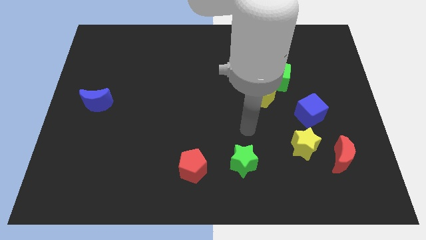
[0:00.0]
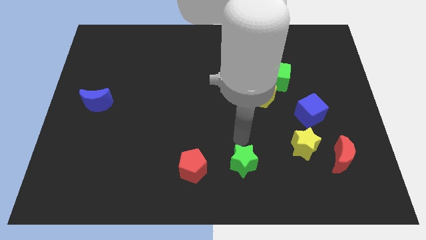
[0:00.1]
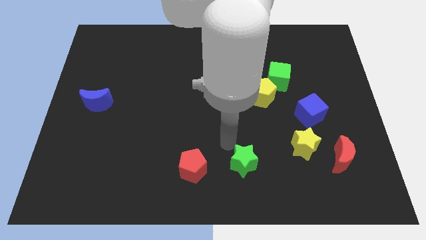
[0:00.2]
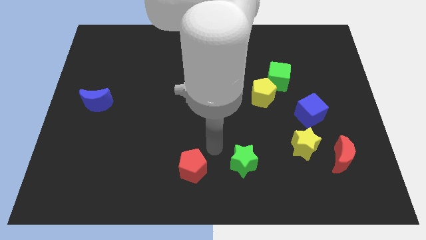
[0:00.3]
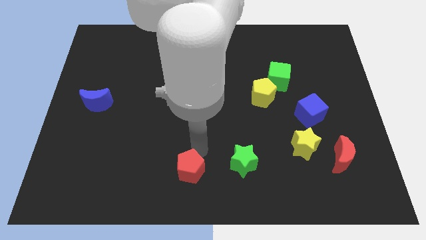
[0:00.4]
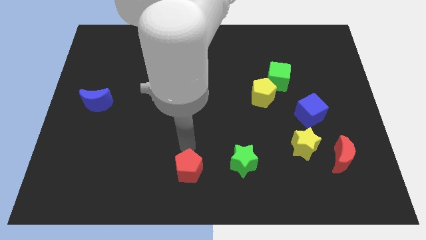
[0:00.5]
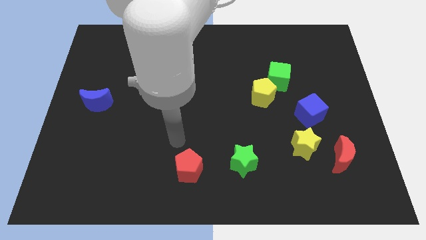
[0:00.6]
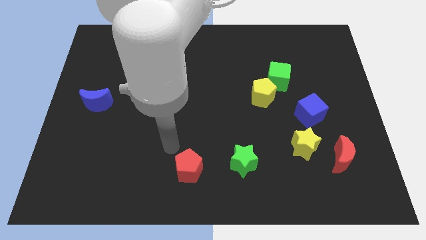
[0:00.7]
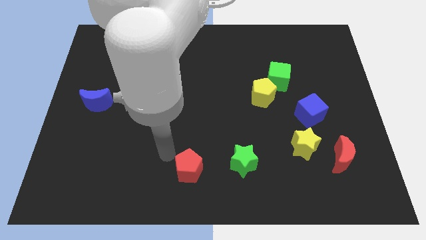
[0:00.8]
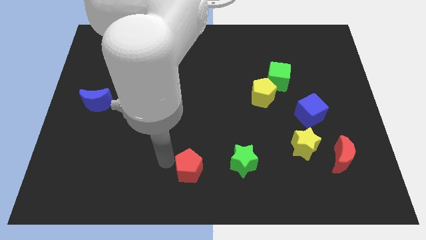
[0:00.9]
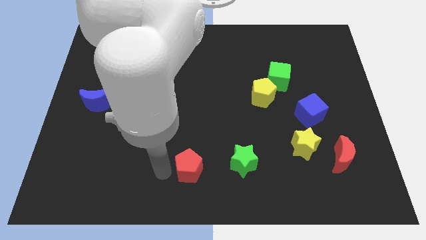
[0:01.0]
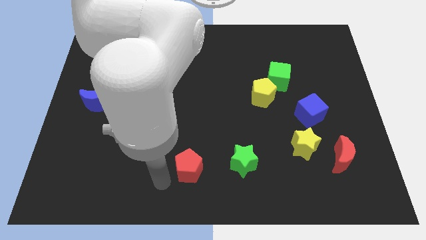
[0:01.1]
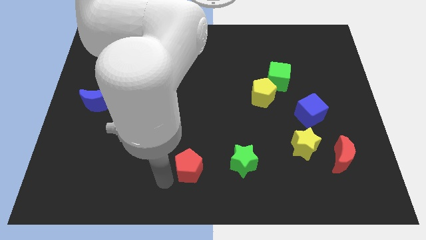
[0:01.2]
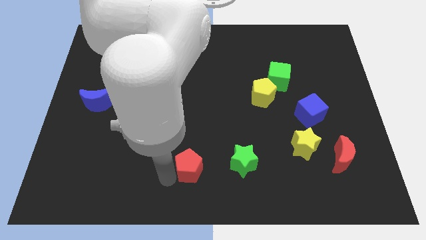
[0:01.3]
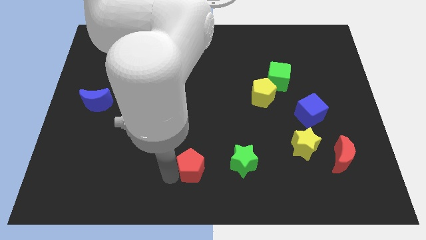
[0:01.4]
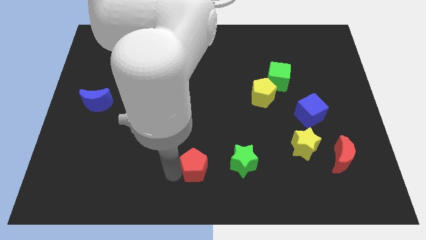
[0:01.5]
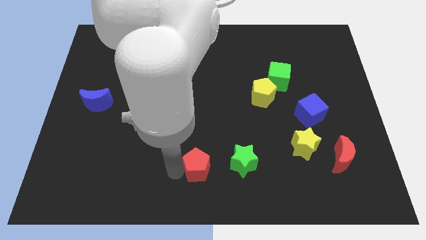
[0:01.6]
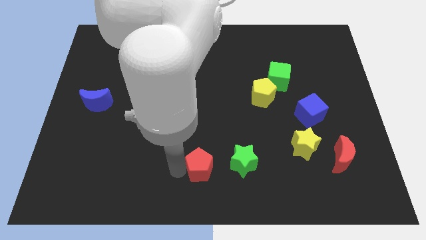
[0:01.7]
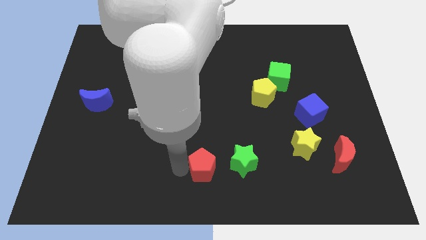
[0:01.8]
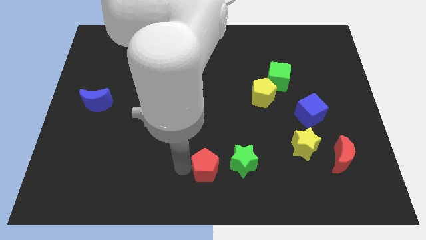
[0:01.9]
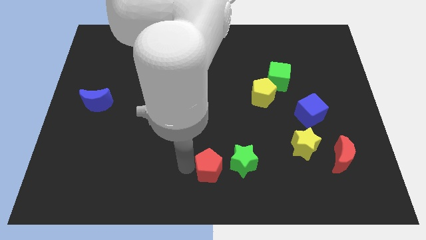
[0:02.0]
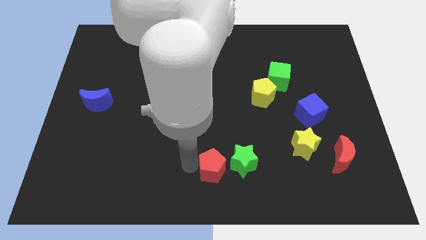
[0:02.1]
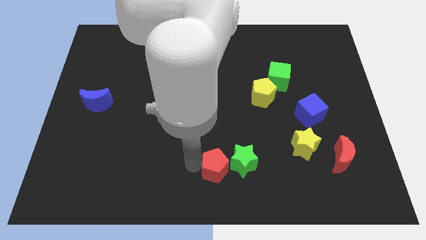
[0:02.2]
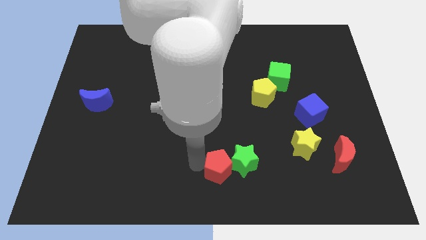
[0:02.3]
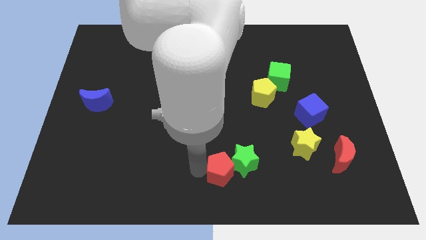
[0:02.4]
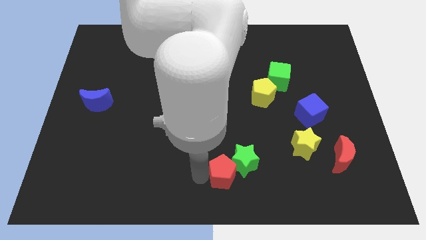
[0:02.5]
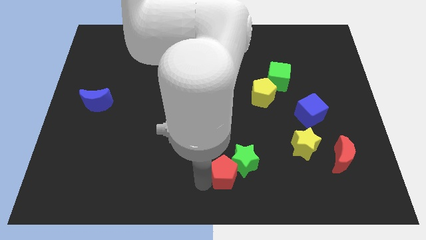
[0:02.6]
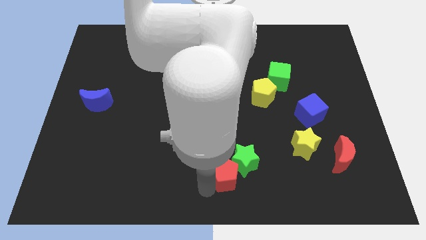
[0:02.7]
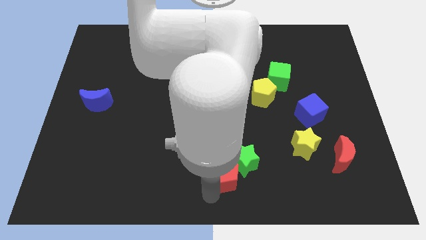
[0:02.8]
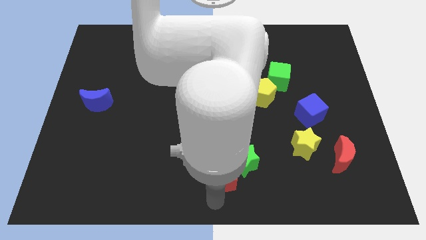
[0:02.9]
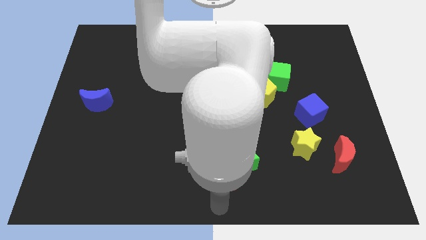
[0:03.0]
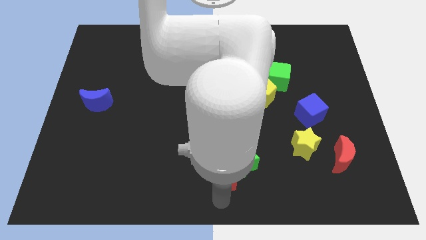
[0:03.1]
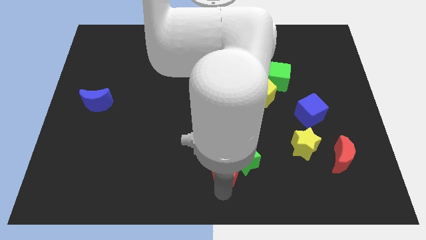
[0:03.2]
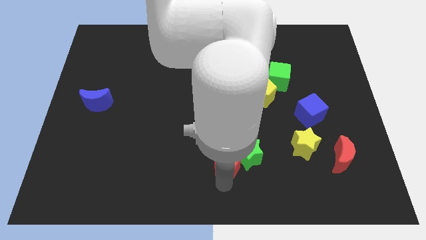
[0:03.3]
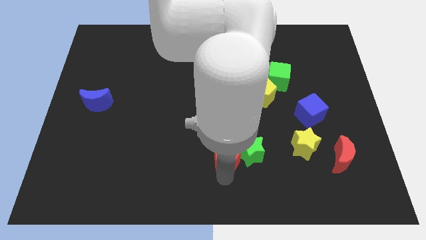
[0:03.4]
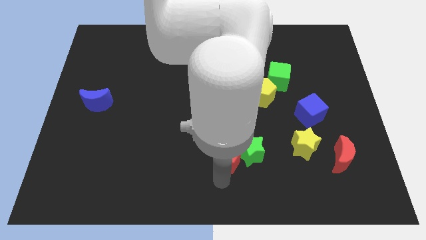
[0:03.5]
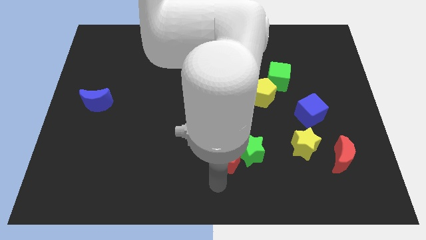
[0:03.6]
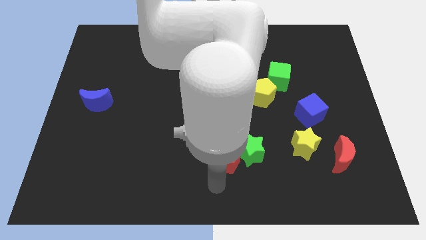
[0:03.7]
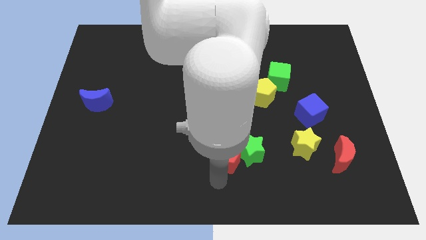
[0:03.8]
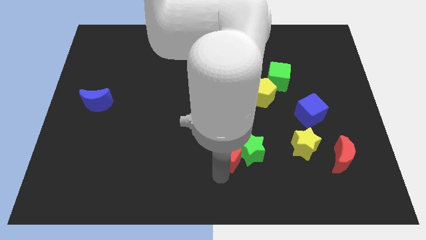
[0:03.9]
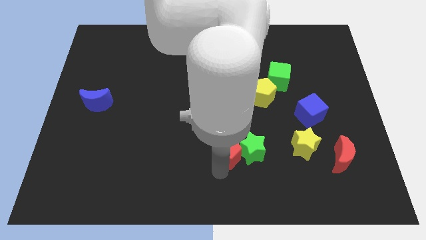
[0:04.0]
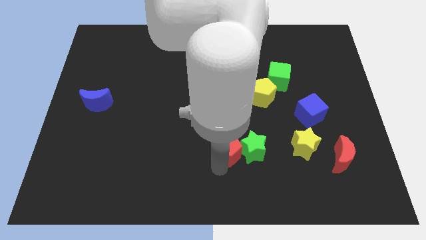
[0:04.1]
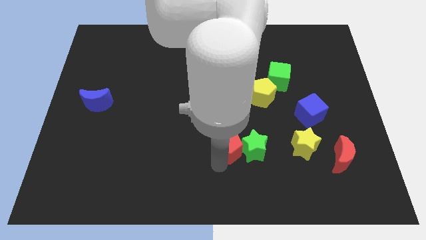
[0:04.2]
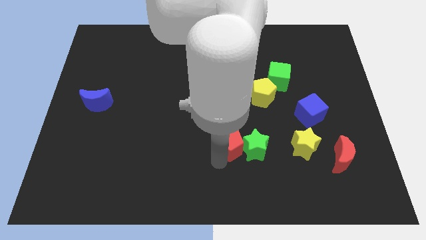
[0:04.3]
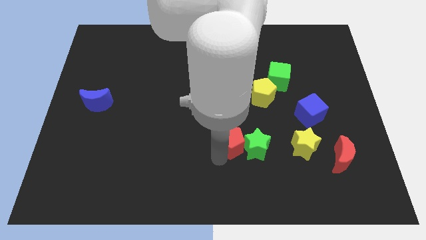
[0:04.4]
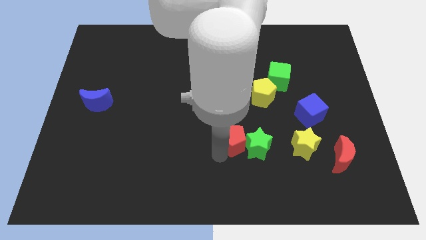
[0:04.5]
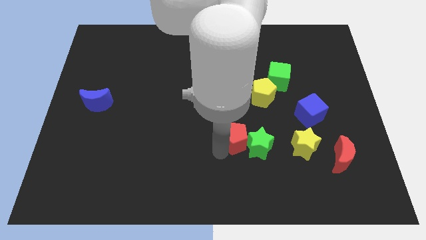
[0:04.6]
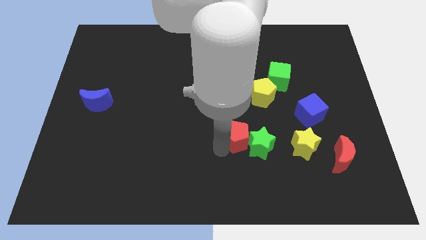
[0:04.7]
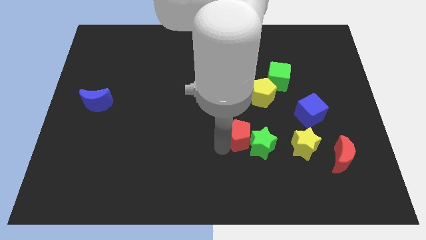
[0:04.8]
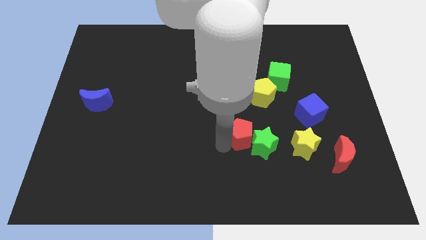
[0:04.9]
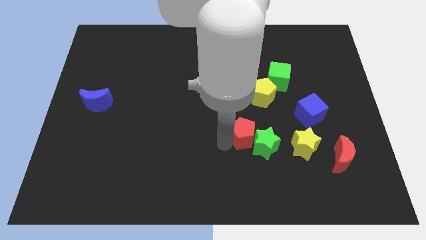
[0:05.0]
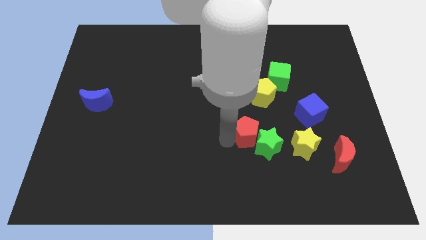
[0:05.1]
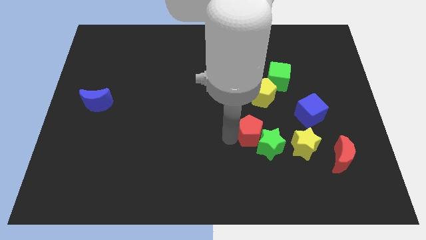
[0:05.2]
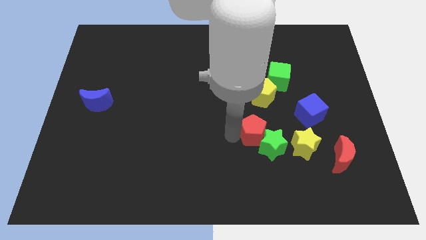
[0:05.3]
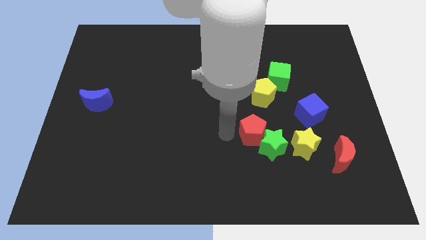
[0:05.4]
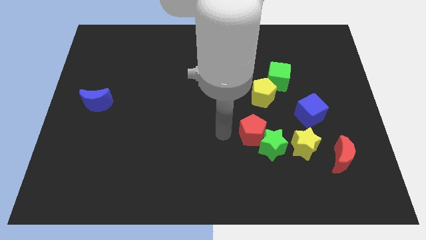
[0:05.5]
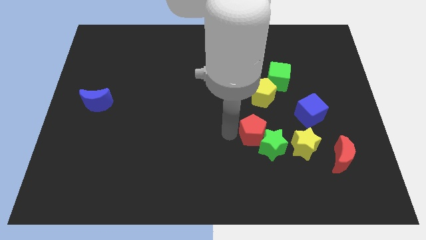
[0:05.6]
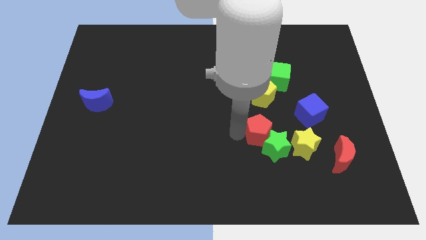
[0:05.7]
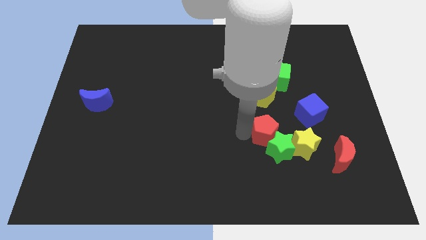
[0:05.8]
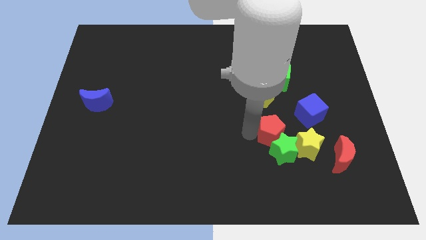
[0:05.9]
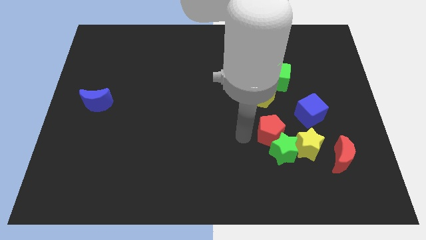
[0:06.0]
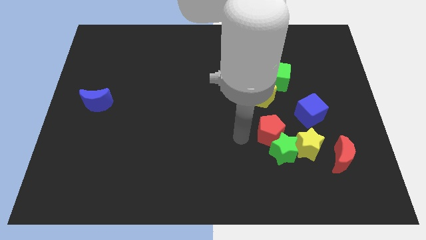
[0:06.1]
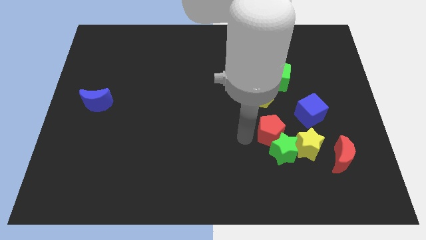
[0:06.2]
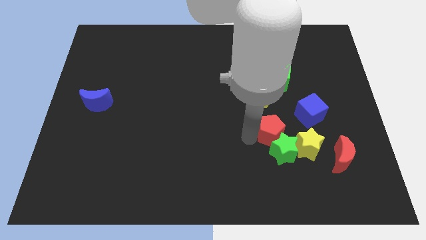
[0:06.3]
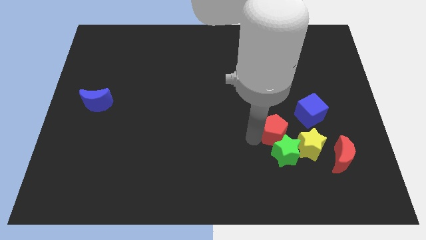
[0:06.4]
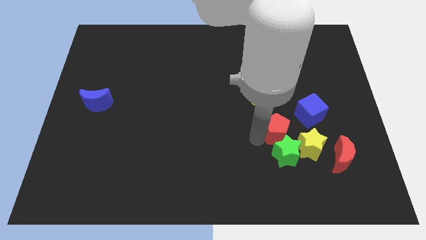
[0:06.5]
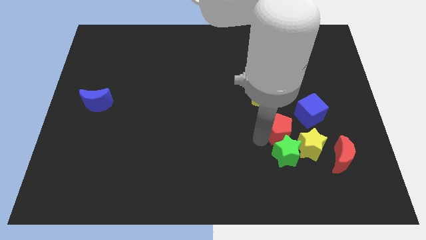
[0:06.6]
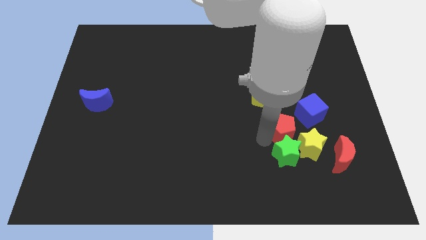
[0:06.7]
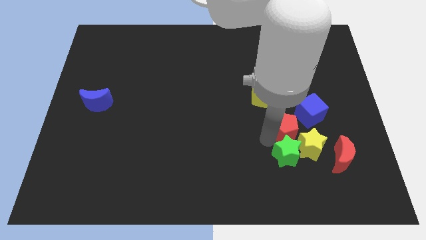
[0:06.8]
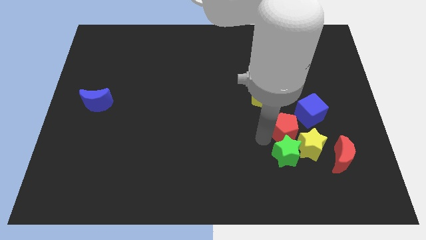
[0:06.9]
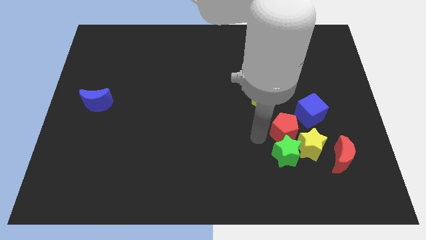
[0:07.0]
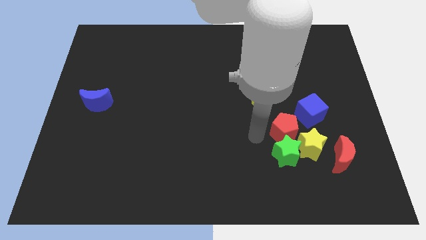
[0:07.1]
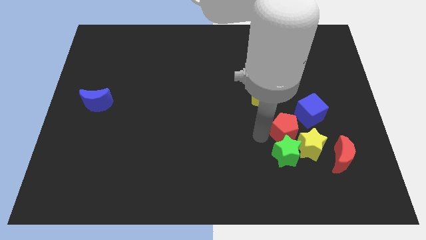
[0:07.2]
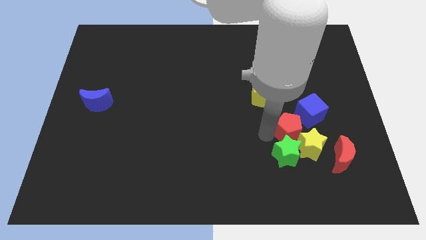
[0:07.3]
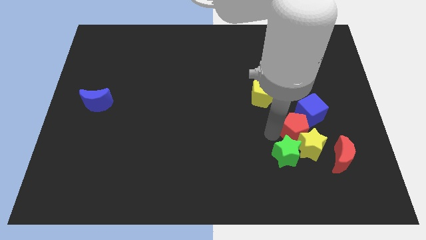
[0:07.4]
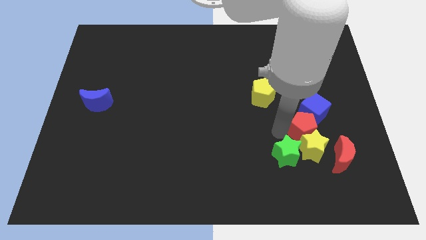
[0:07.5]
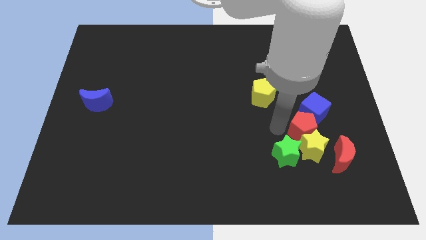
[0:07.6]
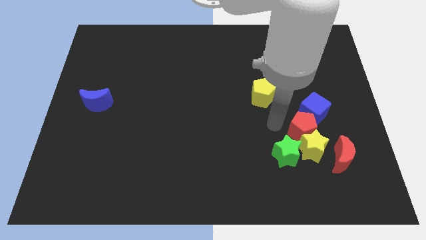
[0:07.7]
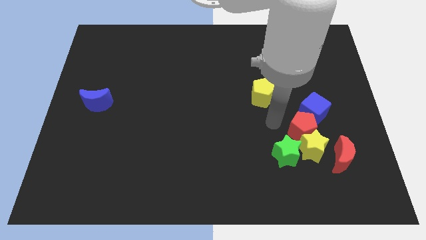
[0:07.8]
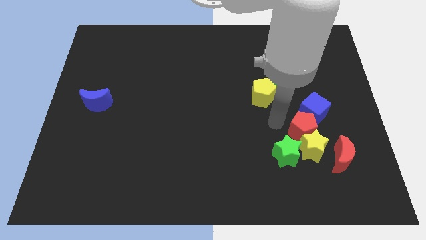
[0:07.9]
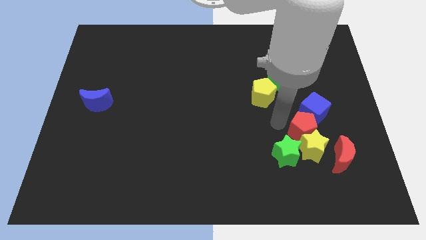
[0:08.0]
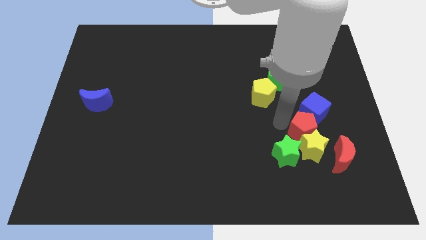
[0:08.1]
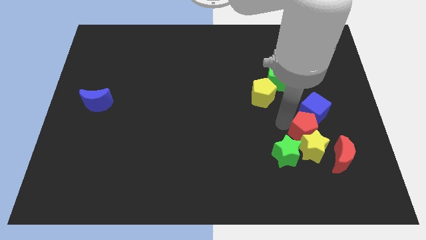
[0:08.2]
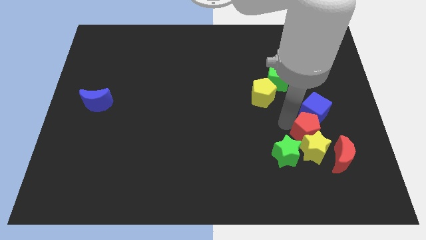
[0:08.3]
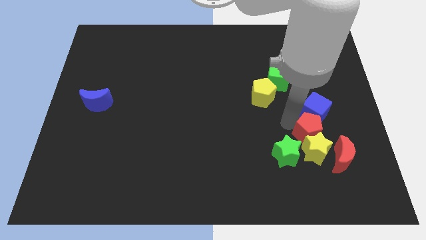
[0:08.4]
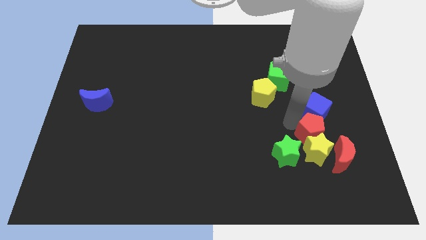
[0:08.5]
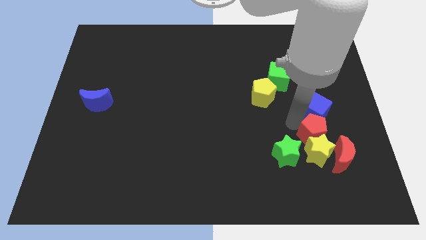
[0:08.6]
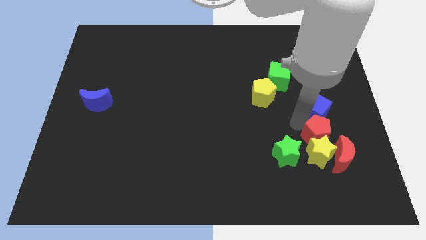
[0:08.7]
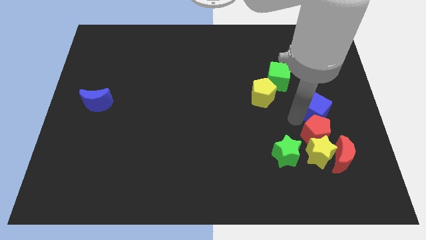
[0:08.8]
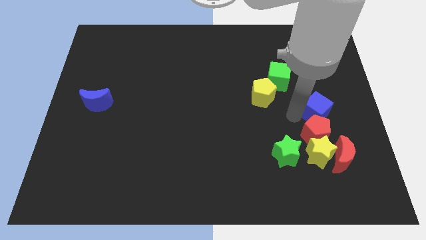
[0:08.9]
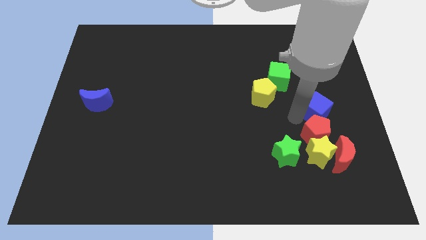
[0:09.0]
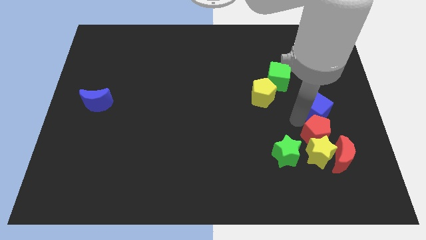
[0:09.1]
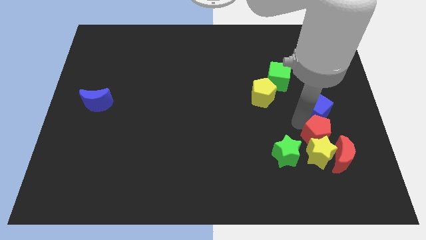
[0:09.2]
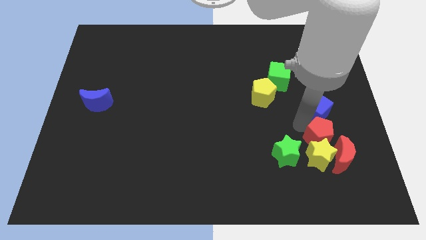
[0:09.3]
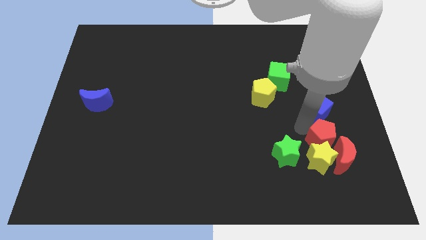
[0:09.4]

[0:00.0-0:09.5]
move the red pentagon to the red moon
